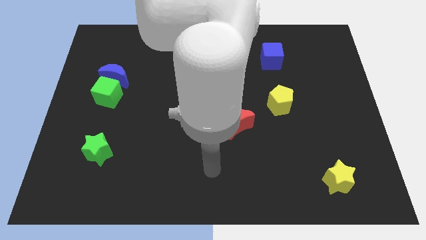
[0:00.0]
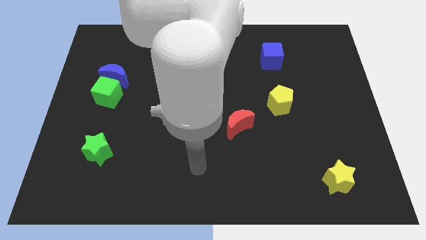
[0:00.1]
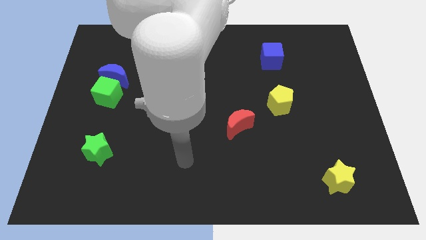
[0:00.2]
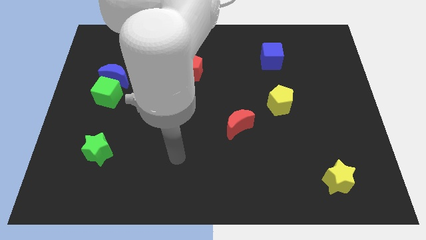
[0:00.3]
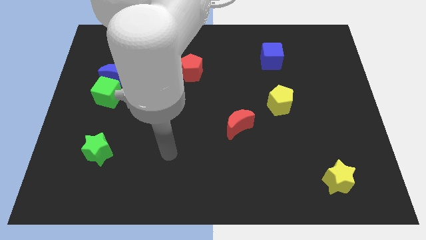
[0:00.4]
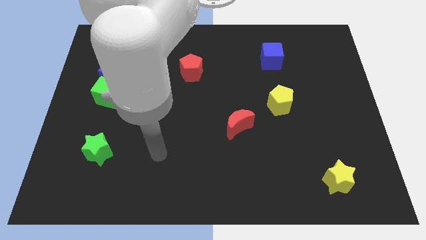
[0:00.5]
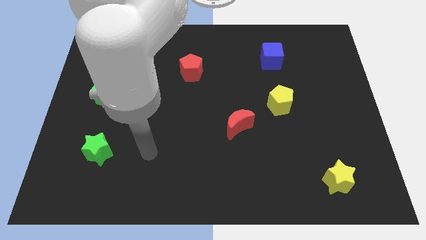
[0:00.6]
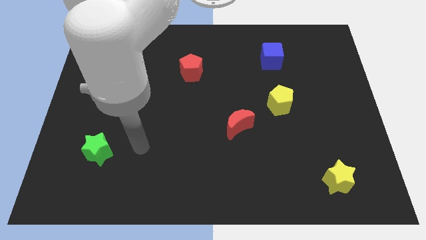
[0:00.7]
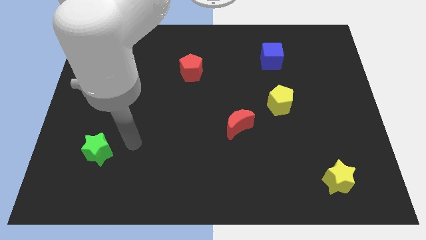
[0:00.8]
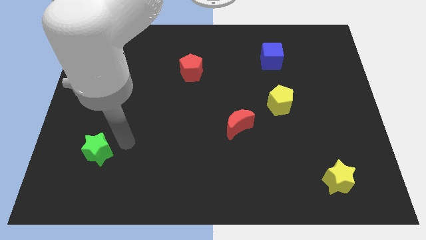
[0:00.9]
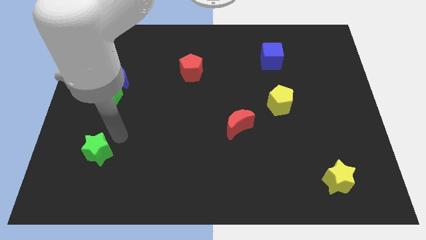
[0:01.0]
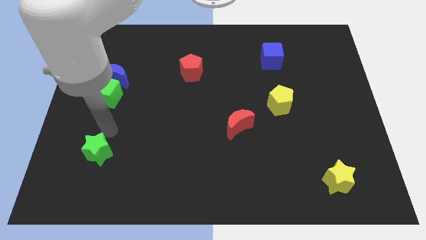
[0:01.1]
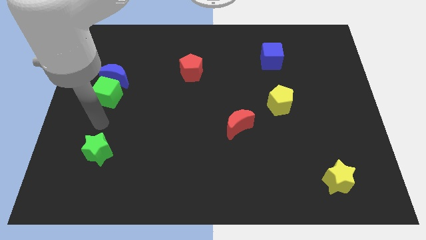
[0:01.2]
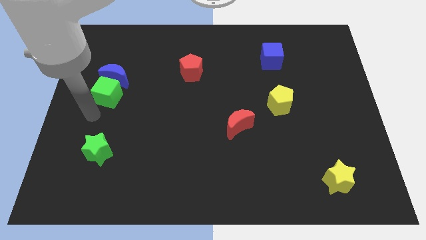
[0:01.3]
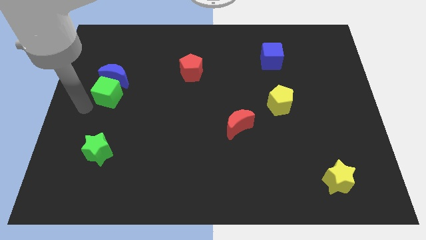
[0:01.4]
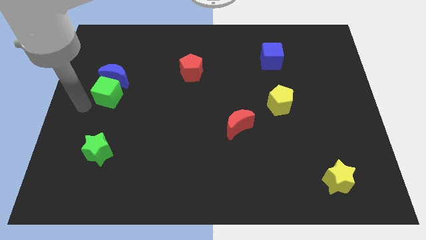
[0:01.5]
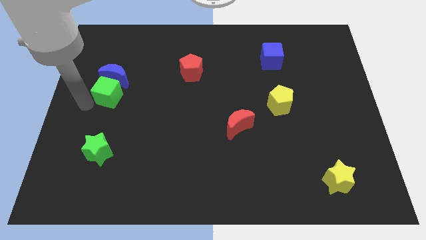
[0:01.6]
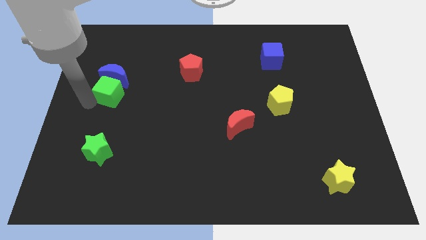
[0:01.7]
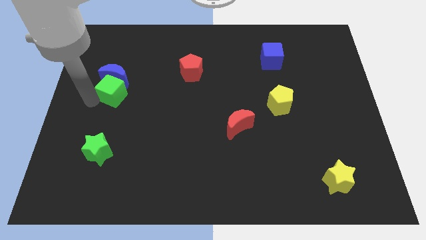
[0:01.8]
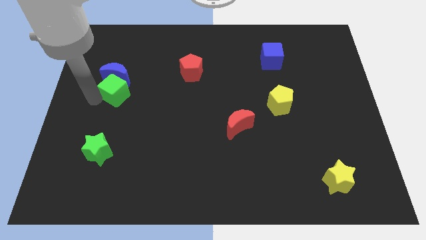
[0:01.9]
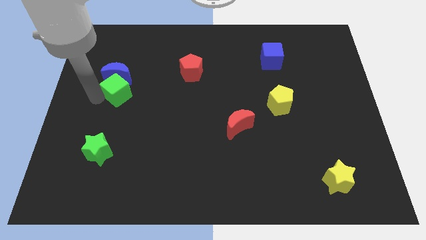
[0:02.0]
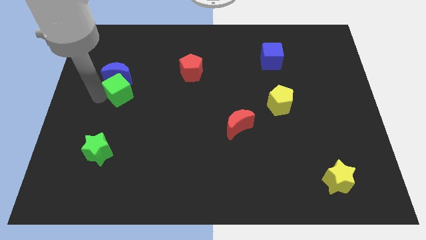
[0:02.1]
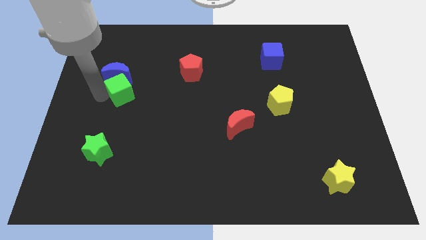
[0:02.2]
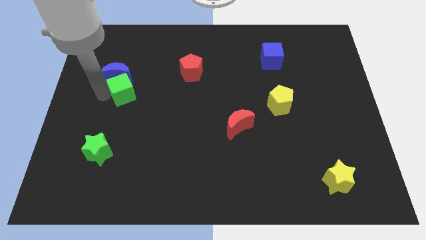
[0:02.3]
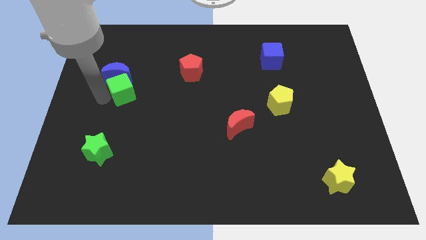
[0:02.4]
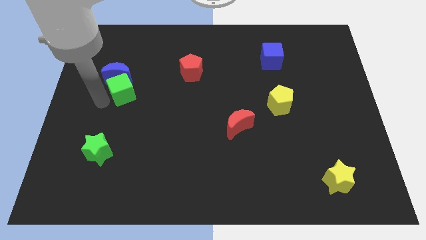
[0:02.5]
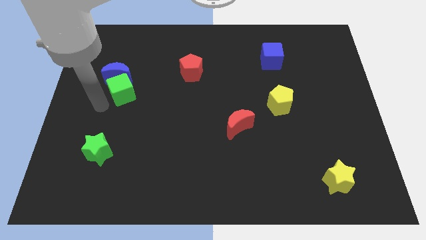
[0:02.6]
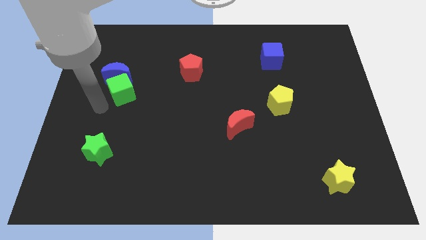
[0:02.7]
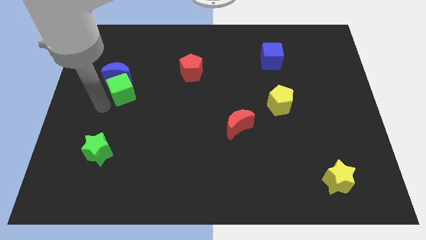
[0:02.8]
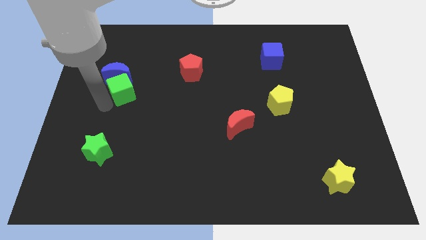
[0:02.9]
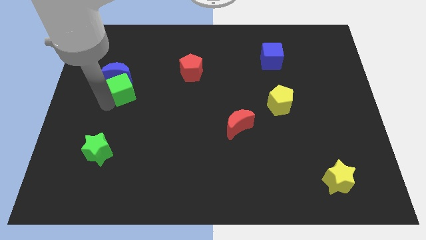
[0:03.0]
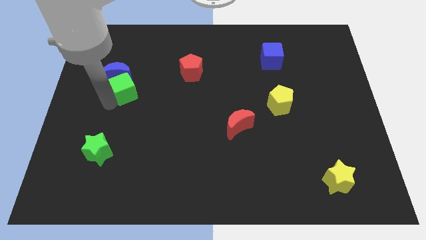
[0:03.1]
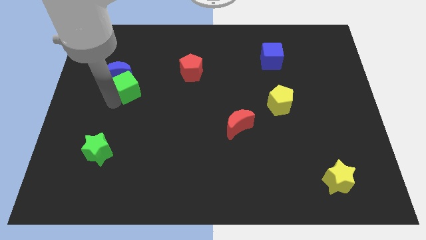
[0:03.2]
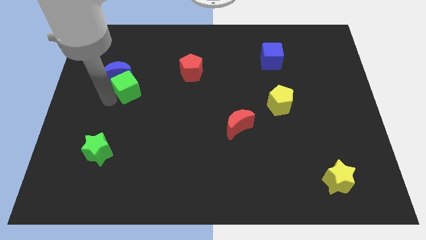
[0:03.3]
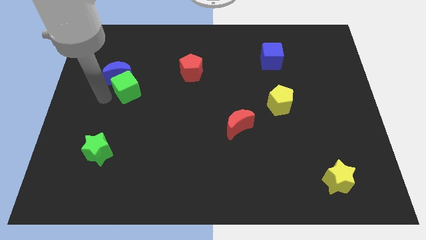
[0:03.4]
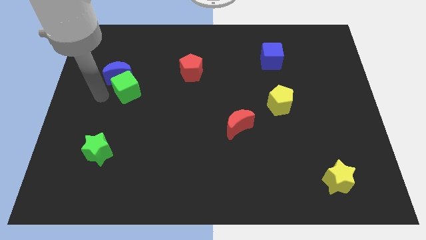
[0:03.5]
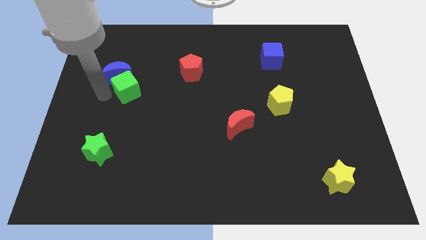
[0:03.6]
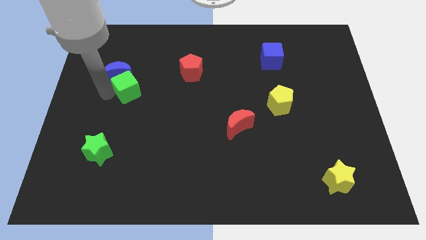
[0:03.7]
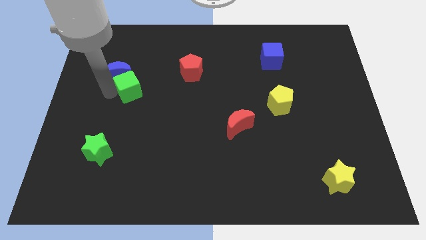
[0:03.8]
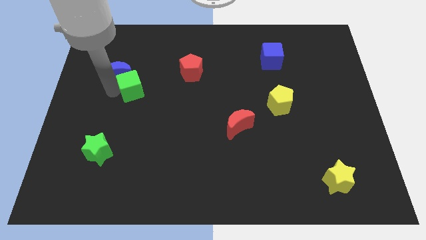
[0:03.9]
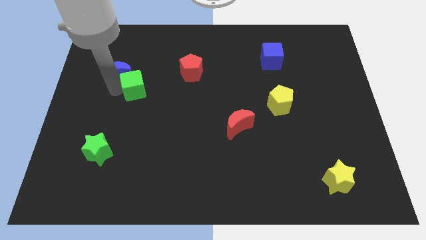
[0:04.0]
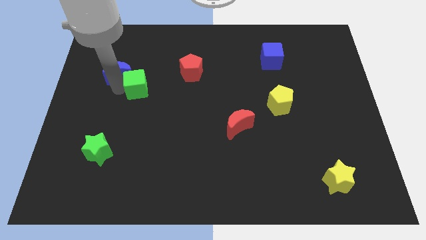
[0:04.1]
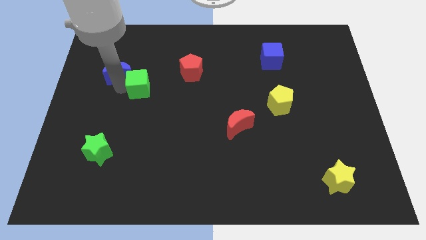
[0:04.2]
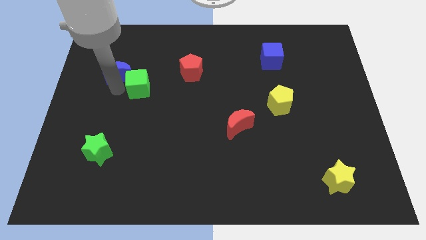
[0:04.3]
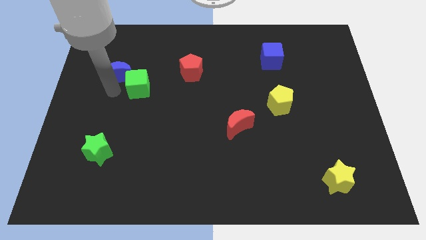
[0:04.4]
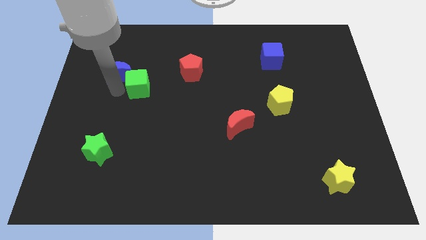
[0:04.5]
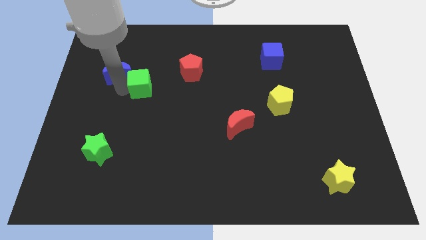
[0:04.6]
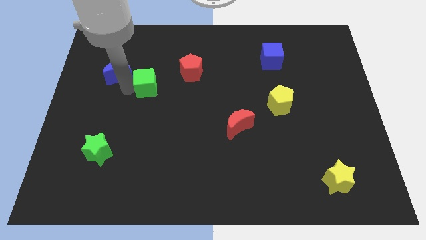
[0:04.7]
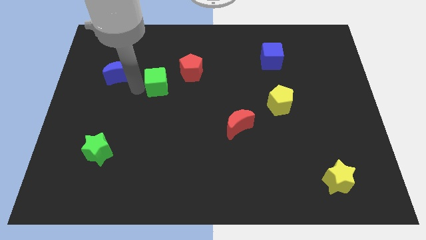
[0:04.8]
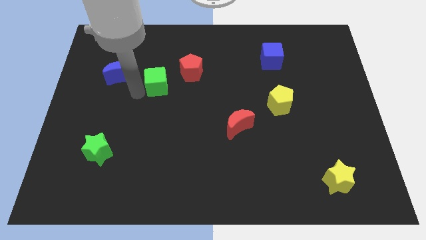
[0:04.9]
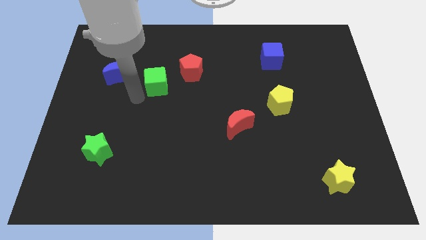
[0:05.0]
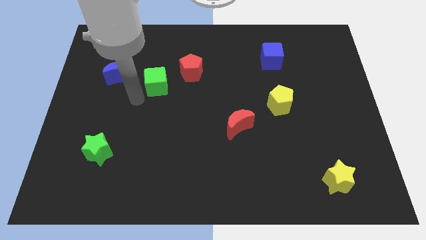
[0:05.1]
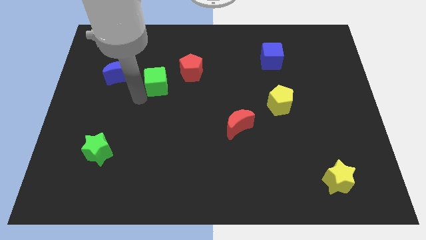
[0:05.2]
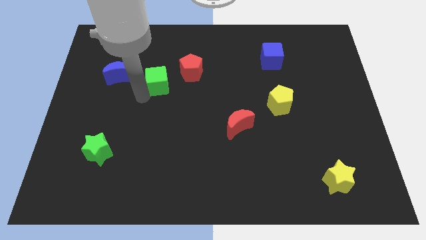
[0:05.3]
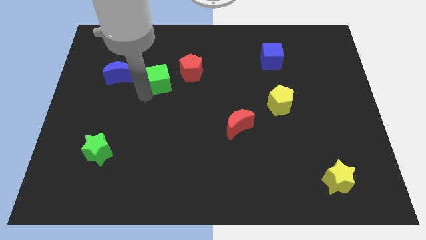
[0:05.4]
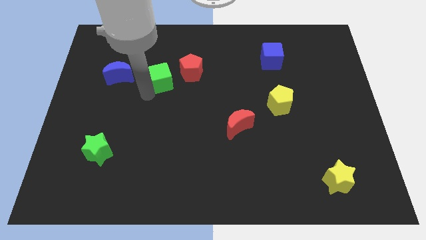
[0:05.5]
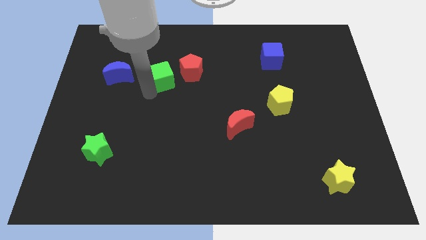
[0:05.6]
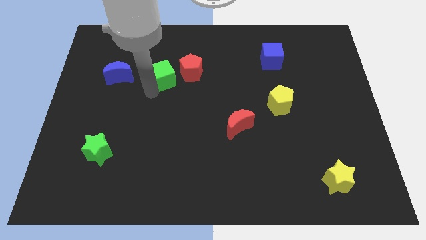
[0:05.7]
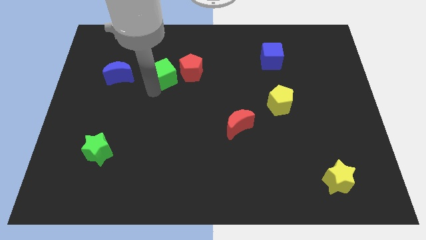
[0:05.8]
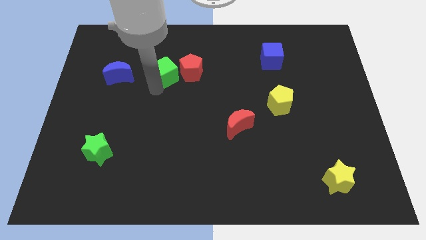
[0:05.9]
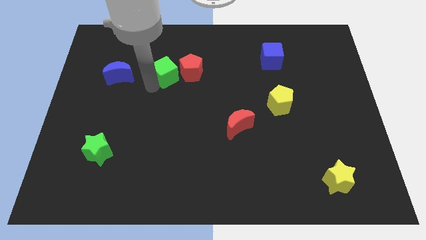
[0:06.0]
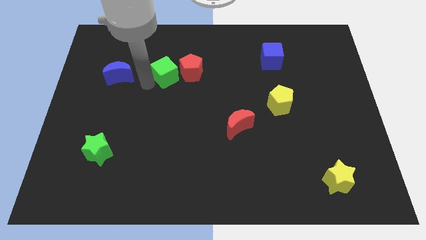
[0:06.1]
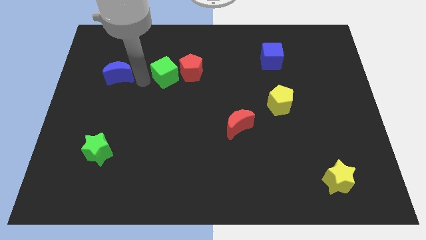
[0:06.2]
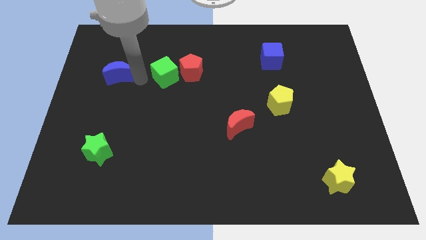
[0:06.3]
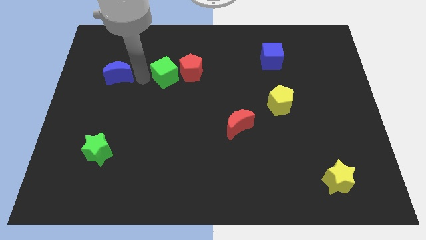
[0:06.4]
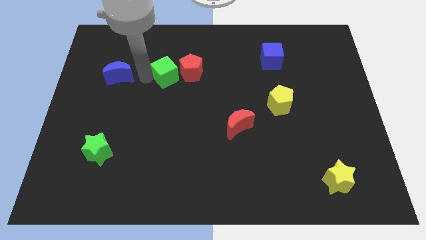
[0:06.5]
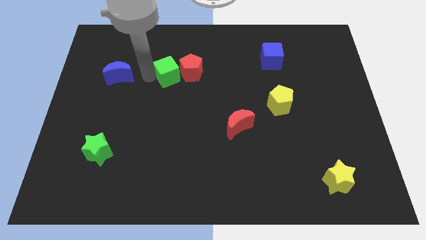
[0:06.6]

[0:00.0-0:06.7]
push the green cube towards the red pentagon

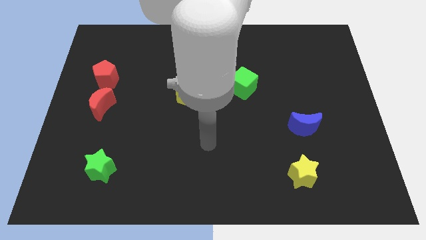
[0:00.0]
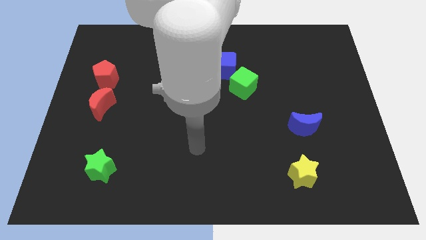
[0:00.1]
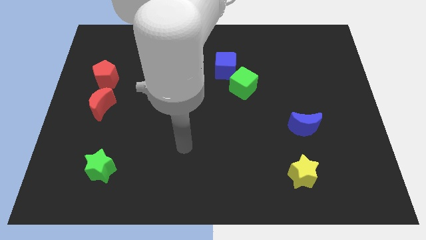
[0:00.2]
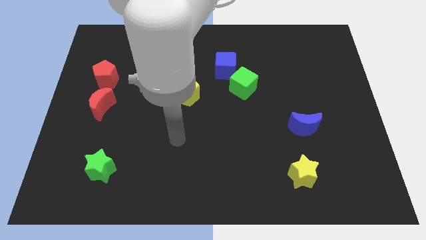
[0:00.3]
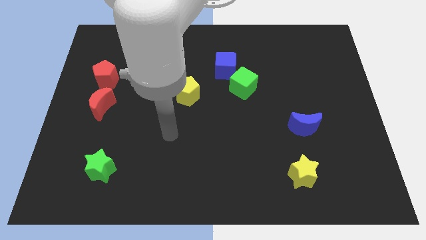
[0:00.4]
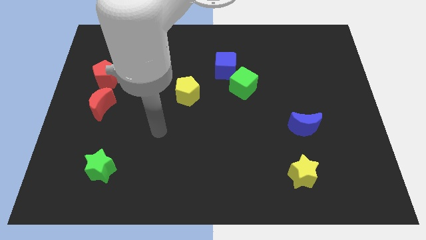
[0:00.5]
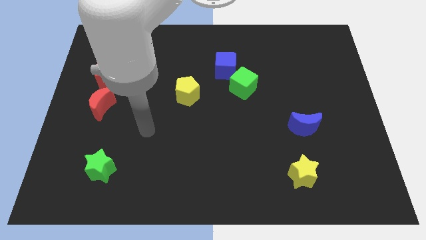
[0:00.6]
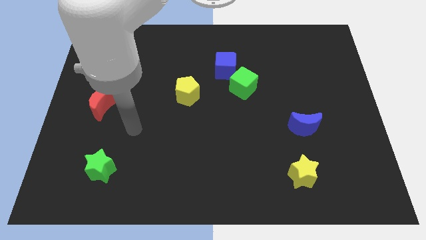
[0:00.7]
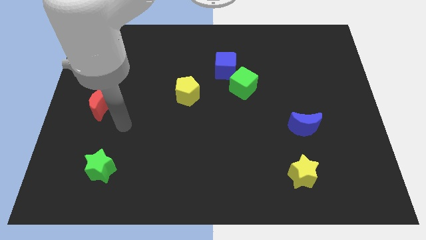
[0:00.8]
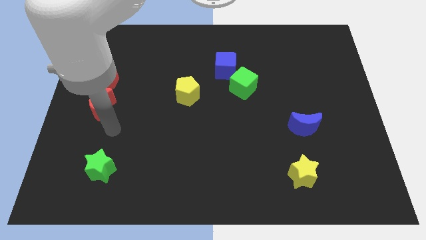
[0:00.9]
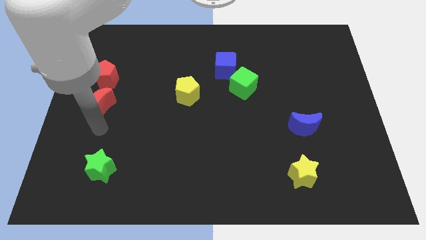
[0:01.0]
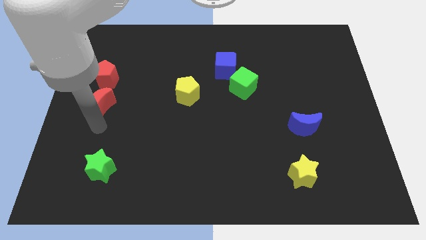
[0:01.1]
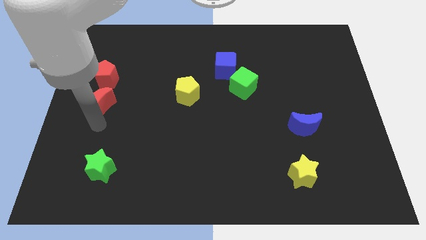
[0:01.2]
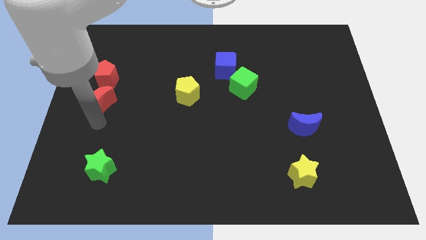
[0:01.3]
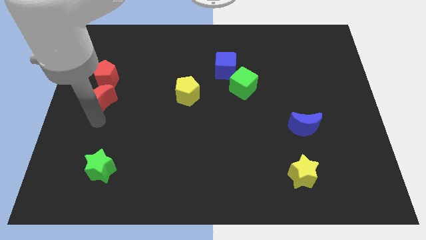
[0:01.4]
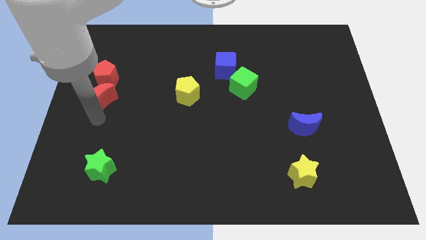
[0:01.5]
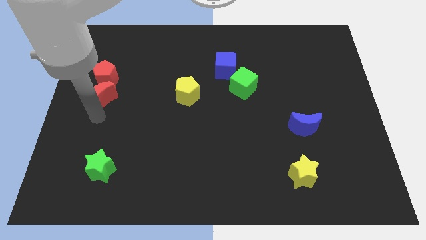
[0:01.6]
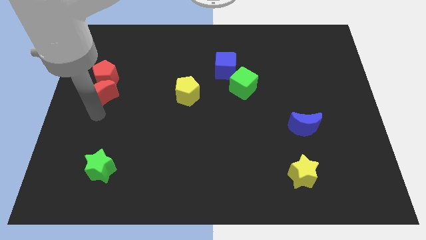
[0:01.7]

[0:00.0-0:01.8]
slide the red moon close to the red pentagon
